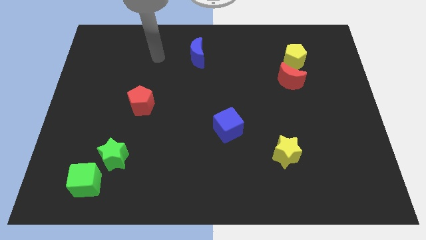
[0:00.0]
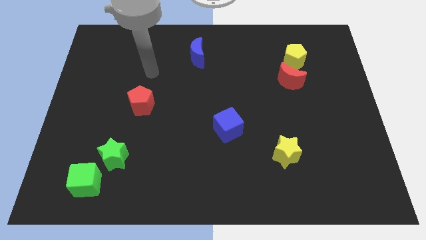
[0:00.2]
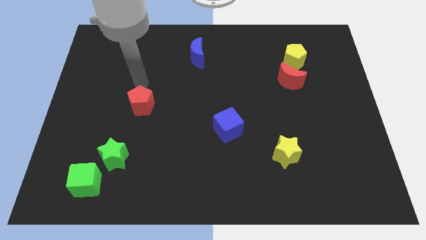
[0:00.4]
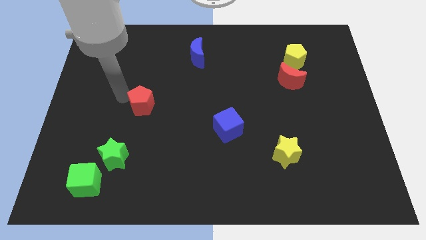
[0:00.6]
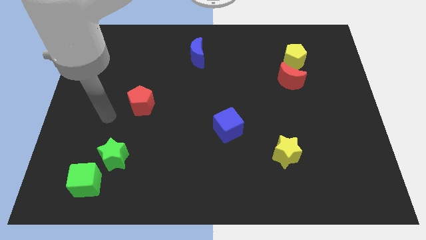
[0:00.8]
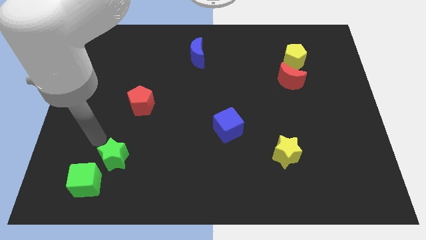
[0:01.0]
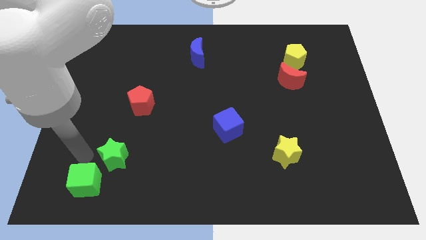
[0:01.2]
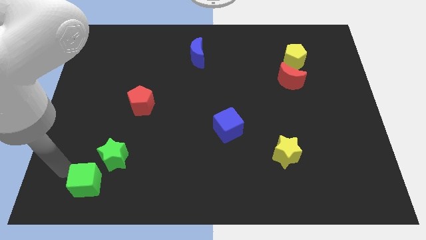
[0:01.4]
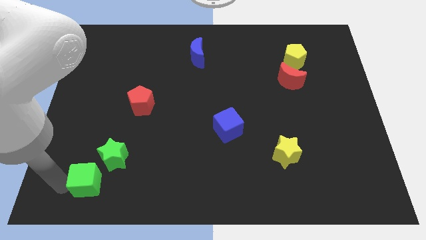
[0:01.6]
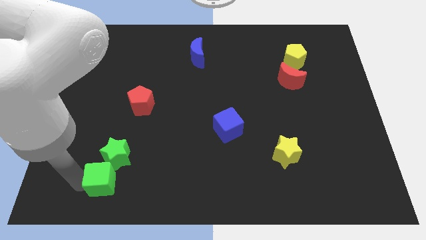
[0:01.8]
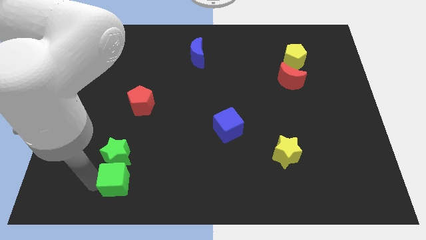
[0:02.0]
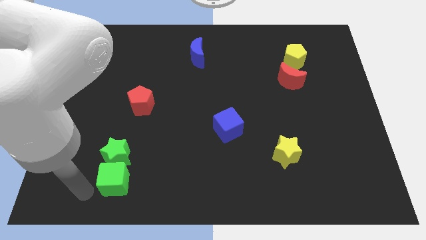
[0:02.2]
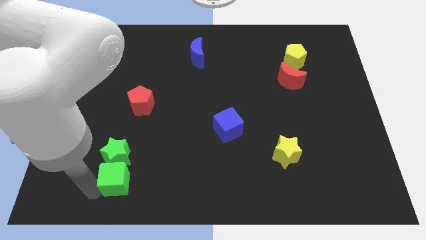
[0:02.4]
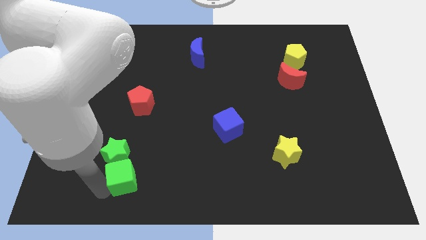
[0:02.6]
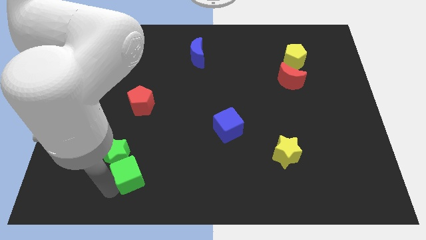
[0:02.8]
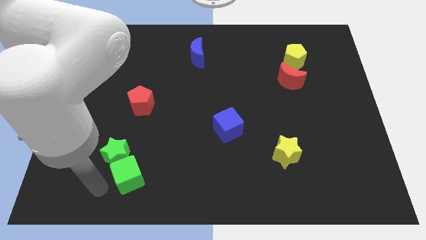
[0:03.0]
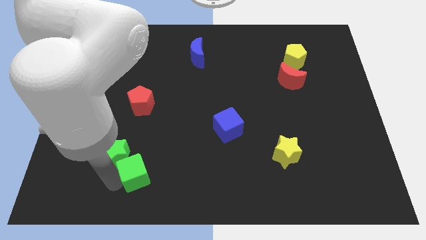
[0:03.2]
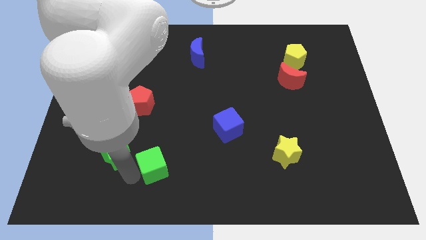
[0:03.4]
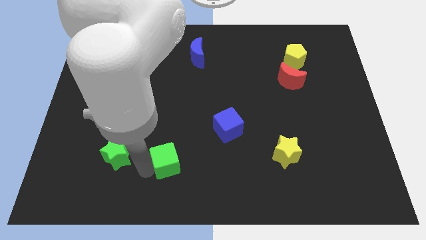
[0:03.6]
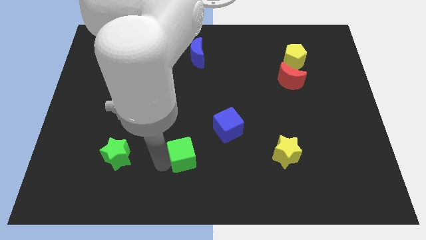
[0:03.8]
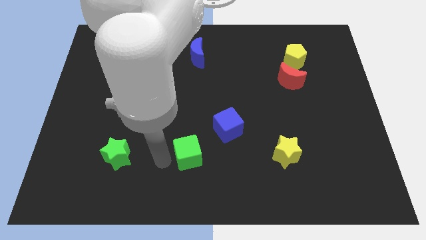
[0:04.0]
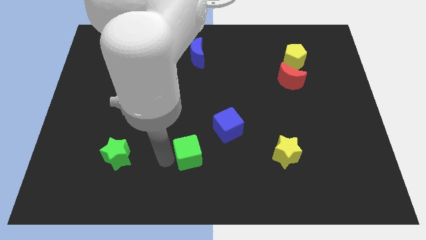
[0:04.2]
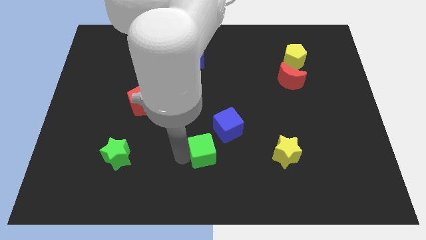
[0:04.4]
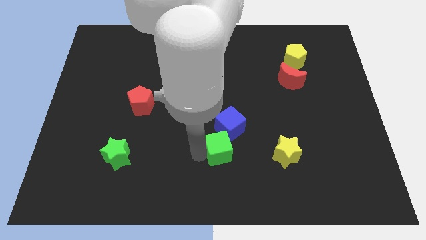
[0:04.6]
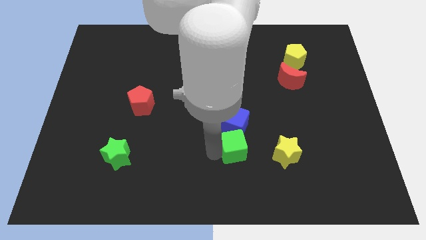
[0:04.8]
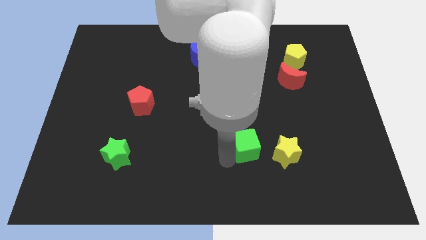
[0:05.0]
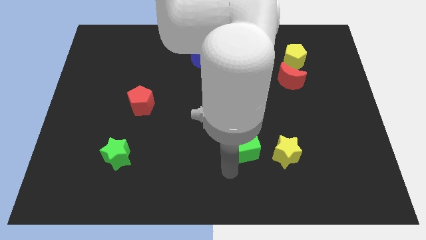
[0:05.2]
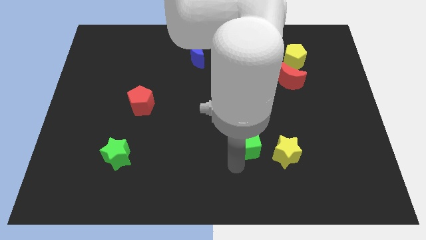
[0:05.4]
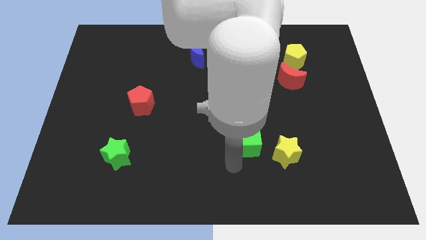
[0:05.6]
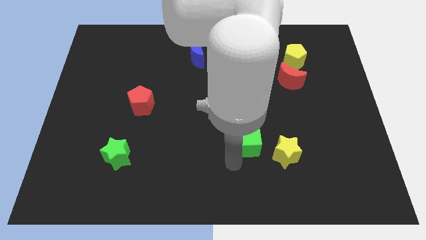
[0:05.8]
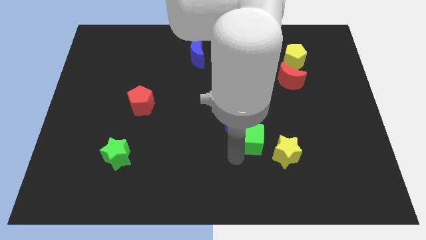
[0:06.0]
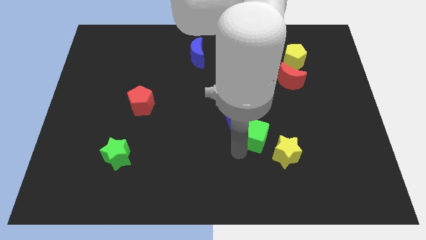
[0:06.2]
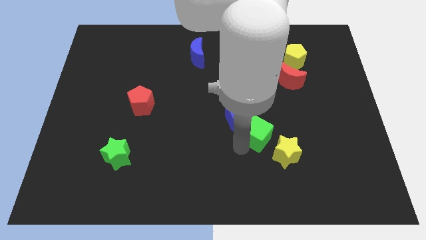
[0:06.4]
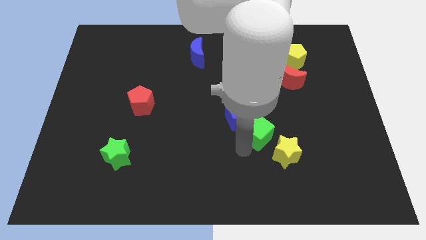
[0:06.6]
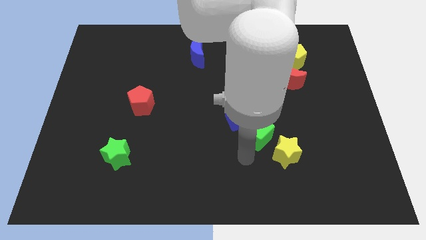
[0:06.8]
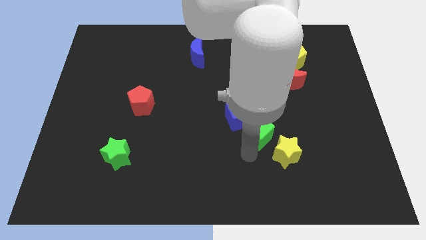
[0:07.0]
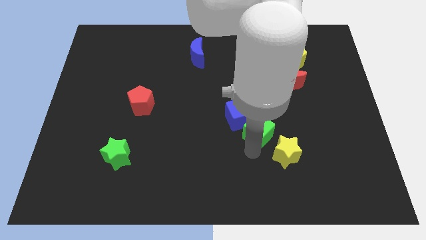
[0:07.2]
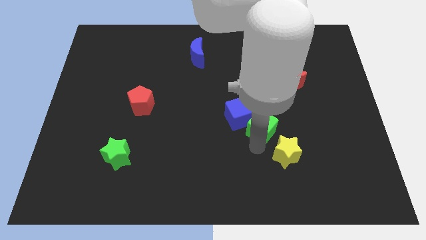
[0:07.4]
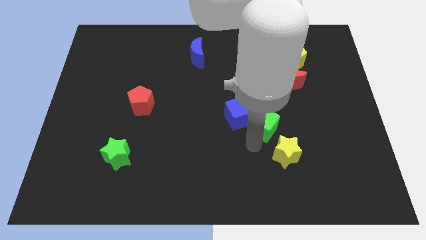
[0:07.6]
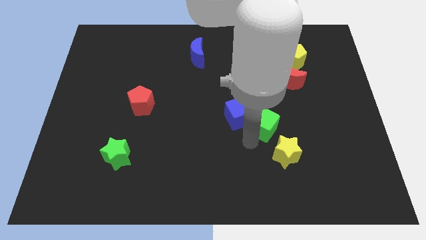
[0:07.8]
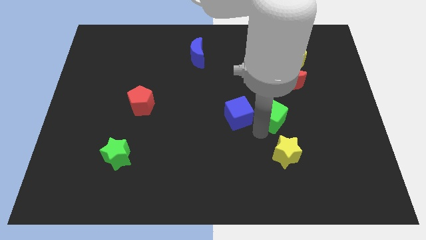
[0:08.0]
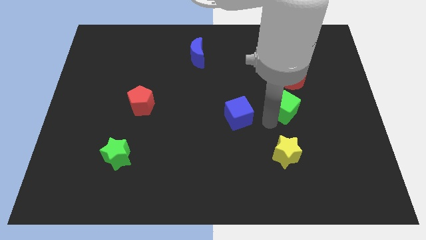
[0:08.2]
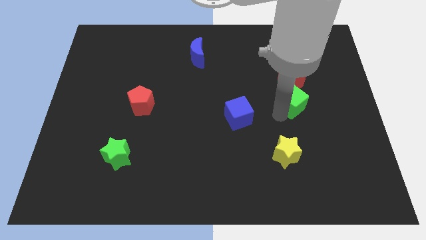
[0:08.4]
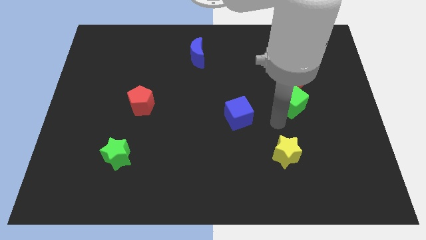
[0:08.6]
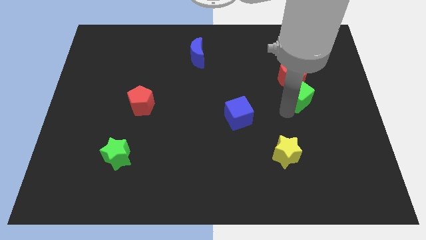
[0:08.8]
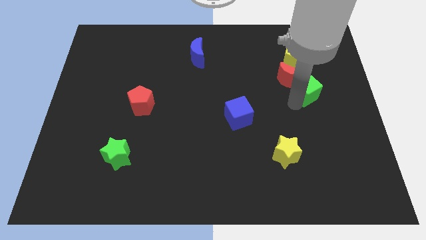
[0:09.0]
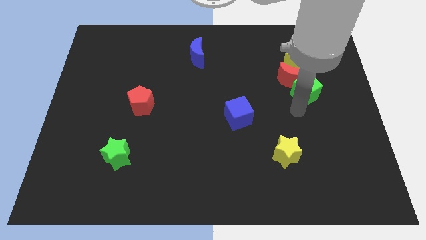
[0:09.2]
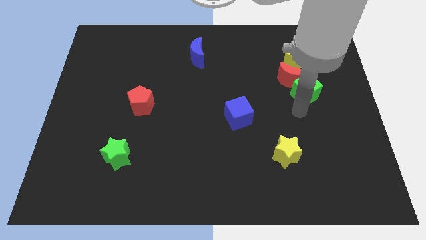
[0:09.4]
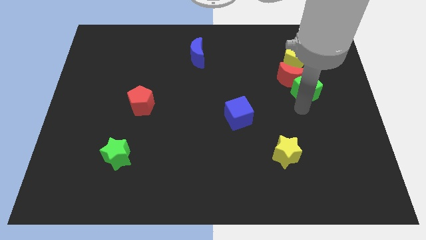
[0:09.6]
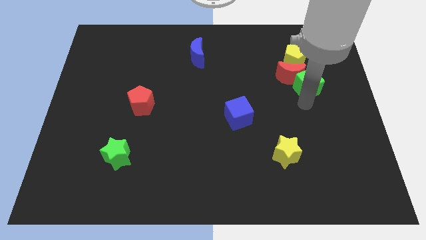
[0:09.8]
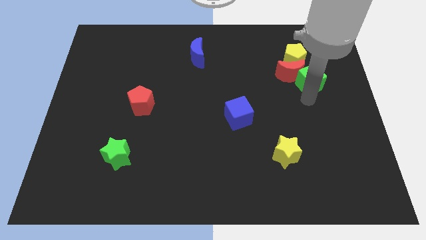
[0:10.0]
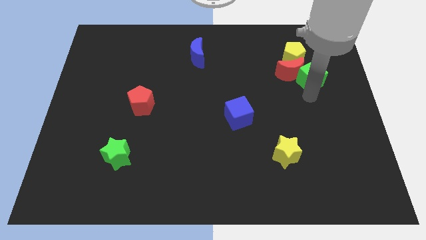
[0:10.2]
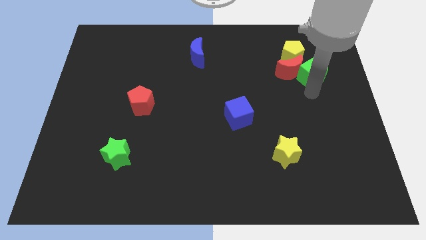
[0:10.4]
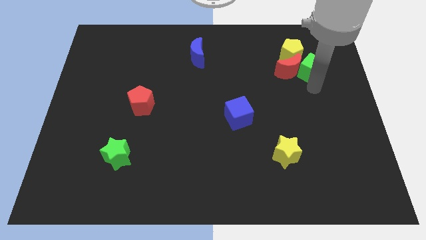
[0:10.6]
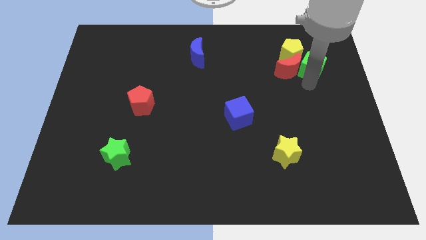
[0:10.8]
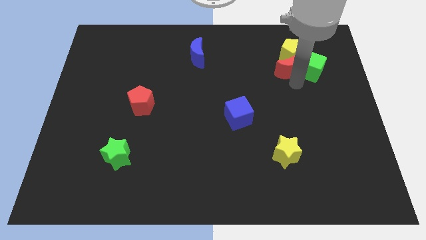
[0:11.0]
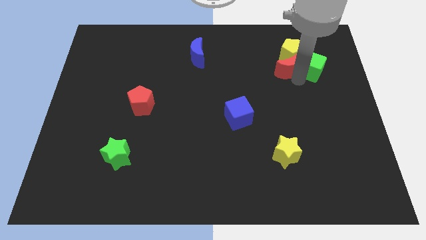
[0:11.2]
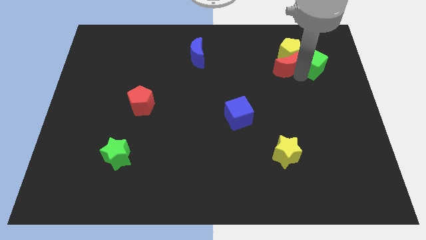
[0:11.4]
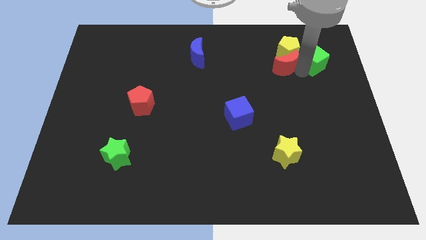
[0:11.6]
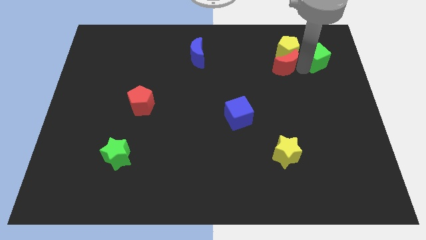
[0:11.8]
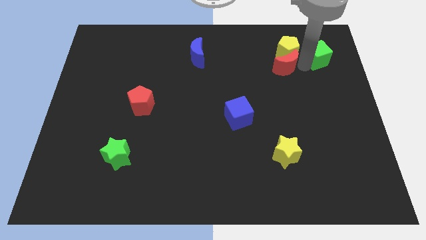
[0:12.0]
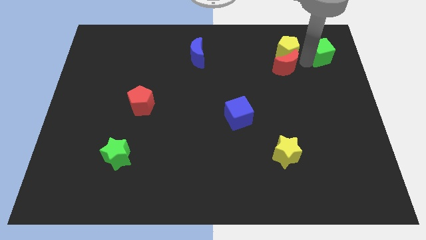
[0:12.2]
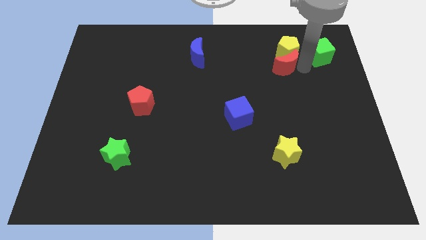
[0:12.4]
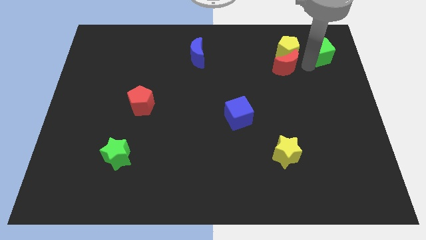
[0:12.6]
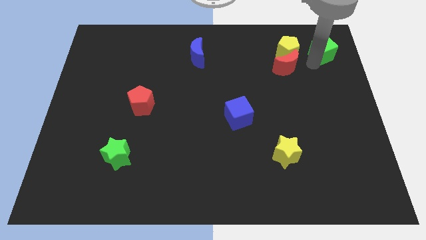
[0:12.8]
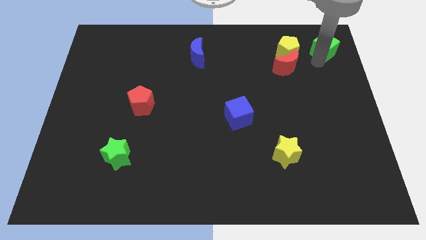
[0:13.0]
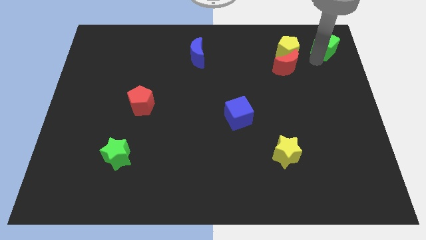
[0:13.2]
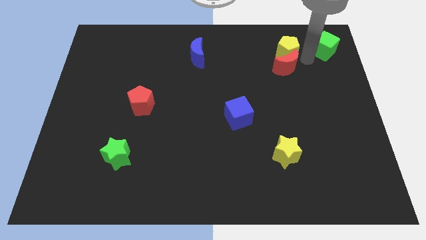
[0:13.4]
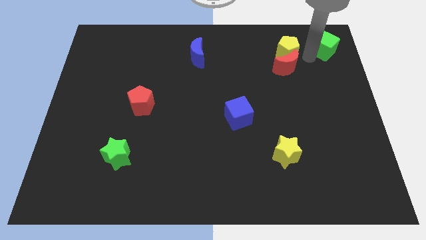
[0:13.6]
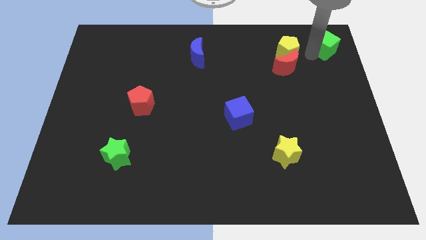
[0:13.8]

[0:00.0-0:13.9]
slide the green cube to the top right corner

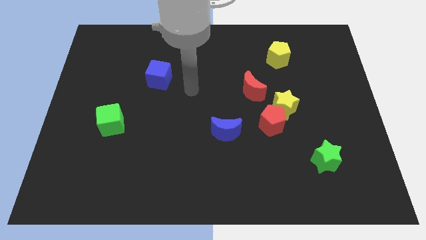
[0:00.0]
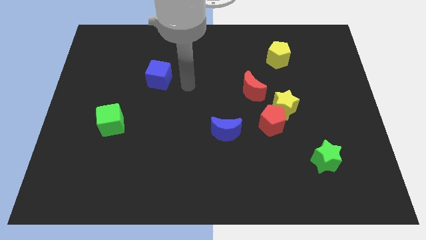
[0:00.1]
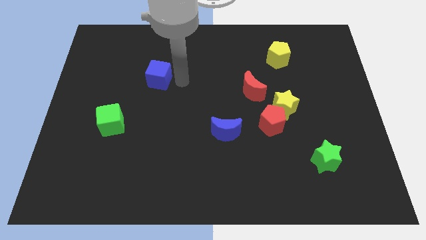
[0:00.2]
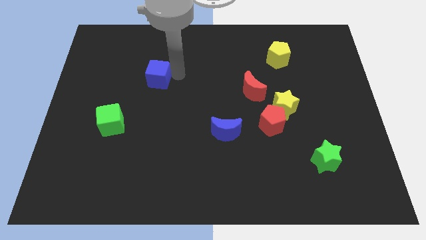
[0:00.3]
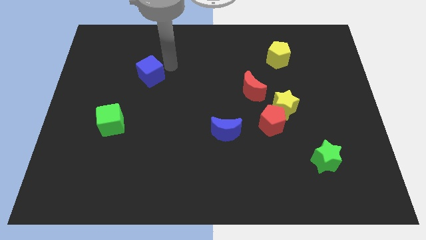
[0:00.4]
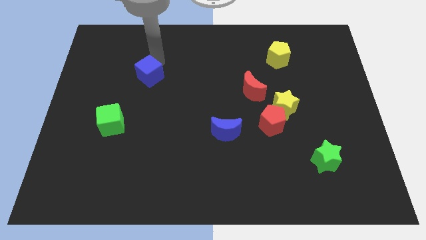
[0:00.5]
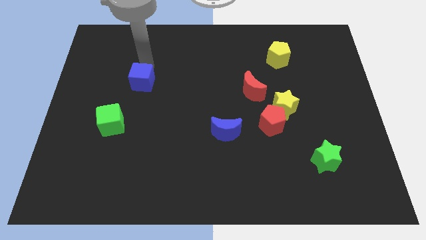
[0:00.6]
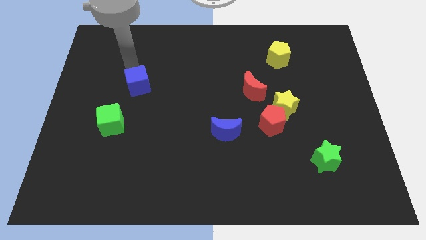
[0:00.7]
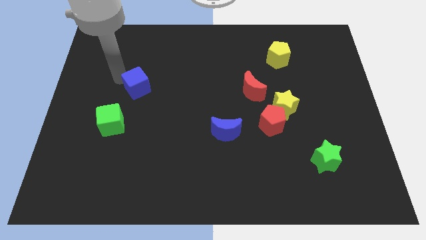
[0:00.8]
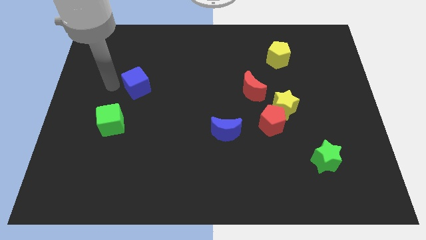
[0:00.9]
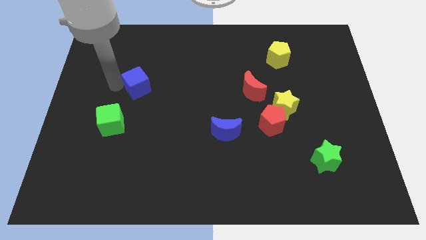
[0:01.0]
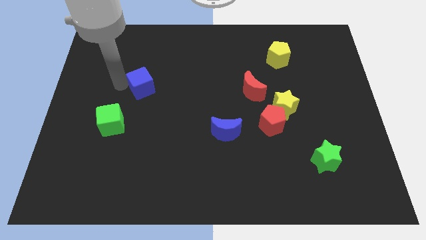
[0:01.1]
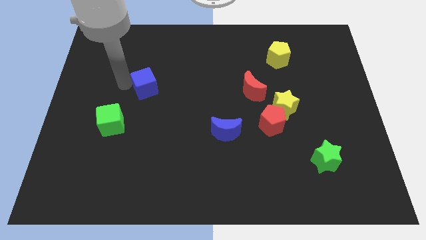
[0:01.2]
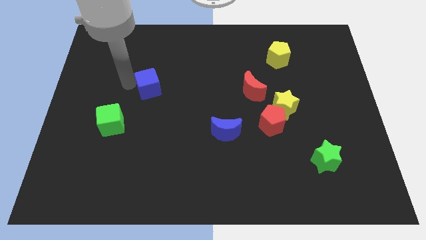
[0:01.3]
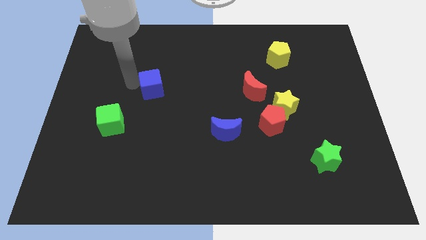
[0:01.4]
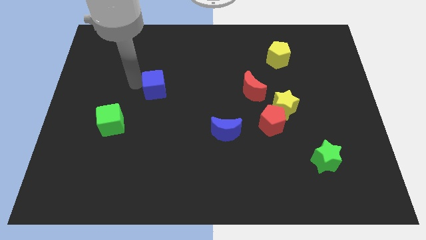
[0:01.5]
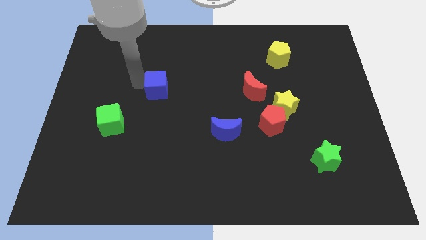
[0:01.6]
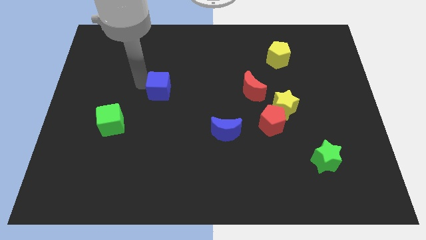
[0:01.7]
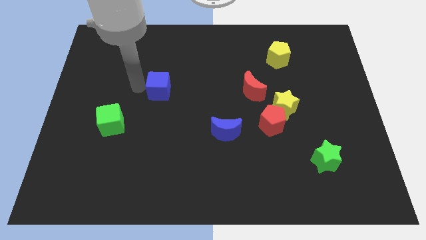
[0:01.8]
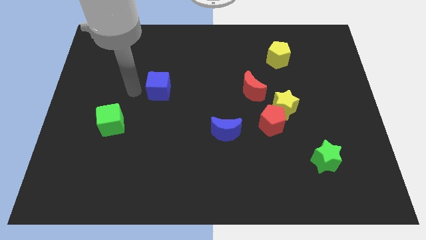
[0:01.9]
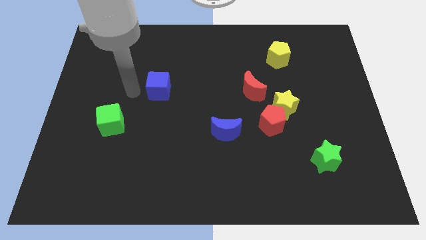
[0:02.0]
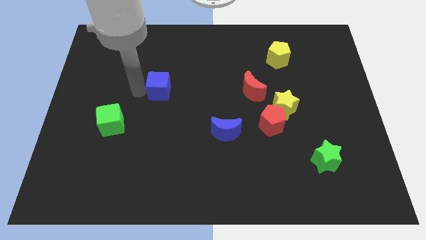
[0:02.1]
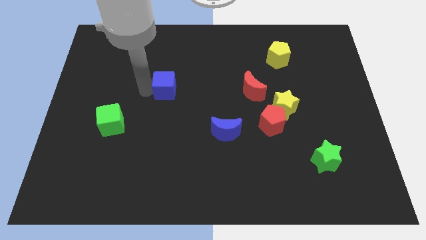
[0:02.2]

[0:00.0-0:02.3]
slide the blue cube to the center of the board
